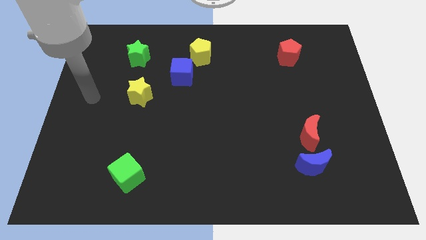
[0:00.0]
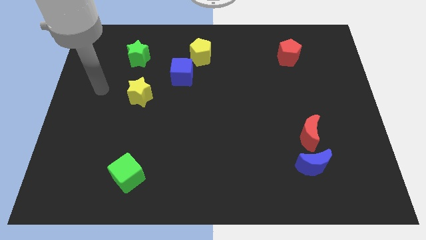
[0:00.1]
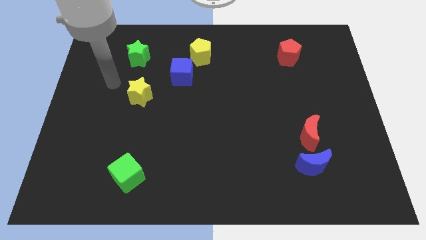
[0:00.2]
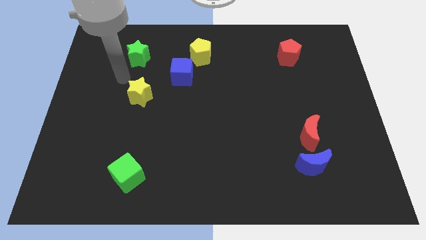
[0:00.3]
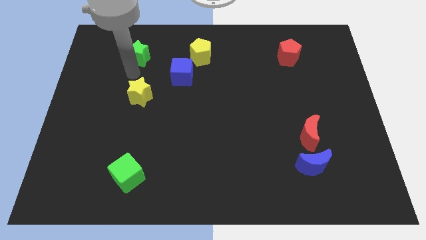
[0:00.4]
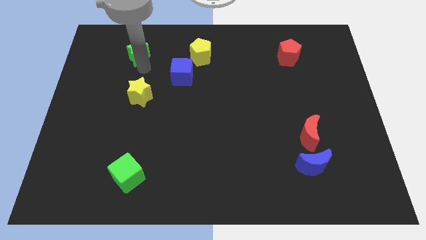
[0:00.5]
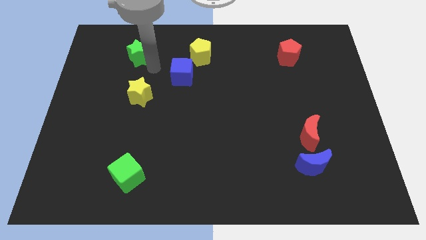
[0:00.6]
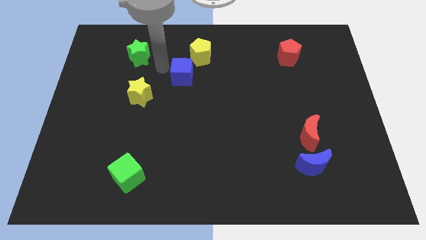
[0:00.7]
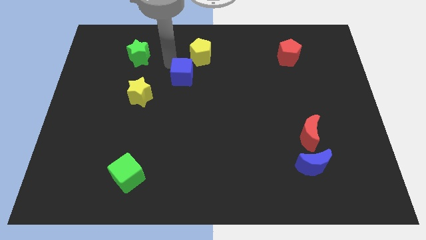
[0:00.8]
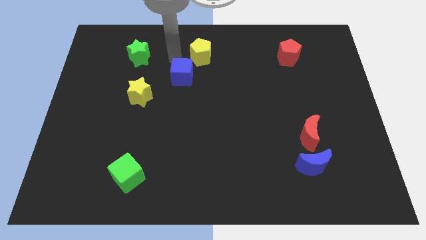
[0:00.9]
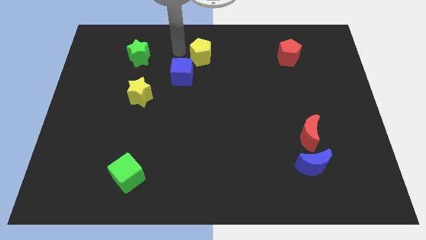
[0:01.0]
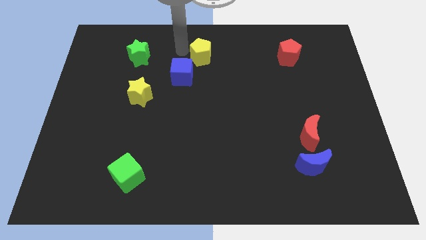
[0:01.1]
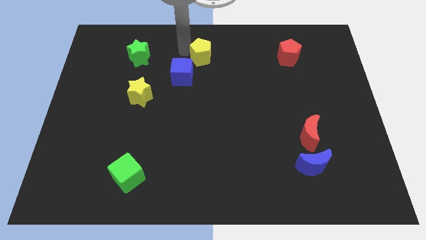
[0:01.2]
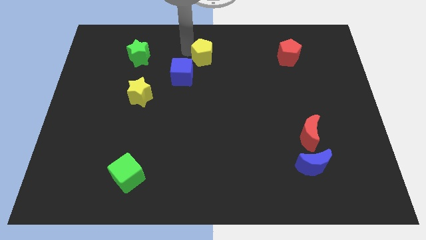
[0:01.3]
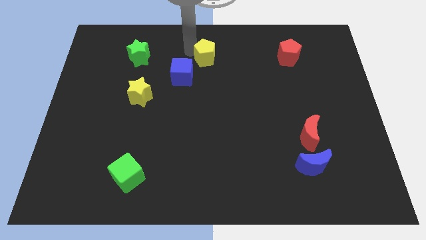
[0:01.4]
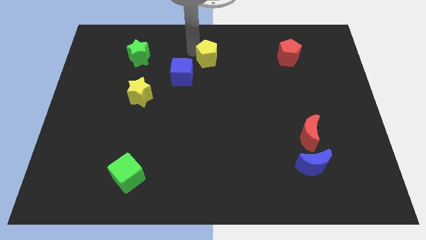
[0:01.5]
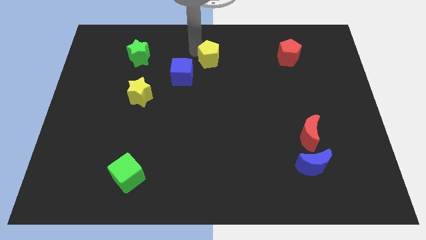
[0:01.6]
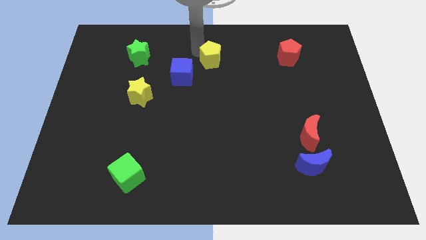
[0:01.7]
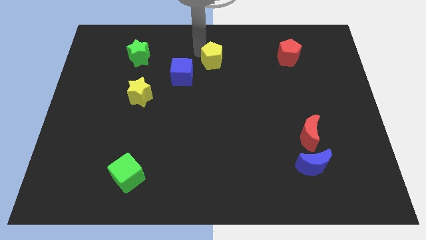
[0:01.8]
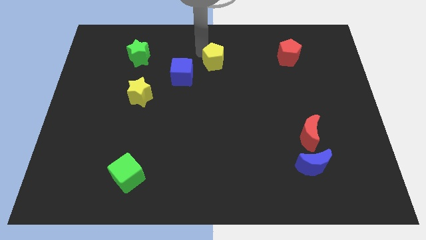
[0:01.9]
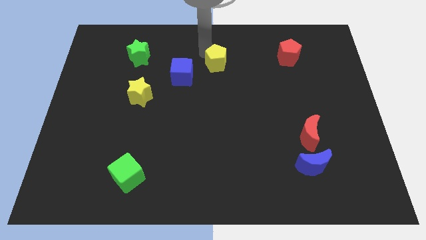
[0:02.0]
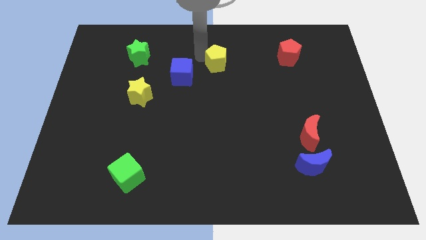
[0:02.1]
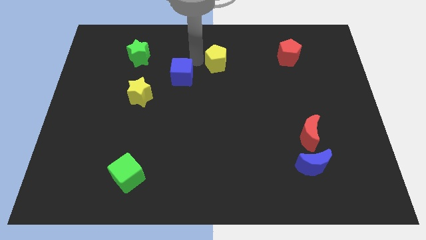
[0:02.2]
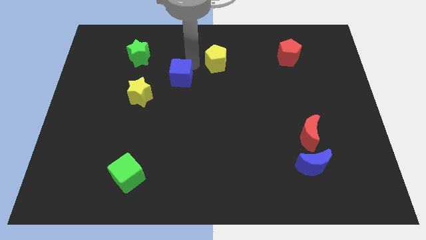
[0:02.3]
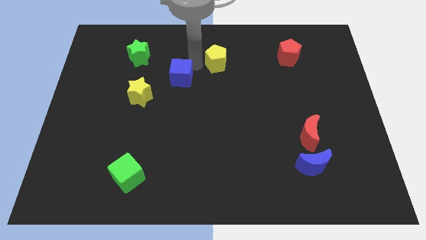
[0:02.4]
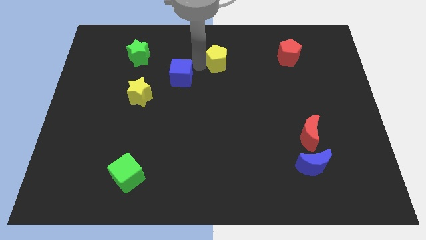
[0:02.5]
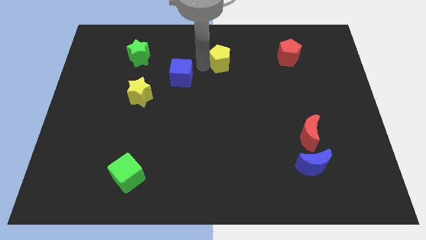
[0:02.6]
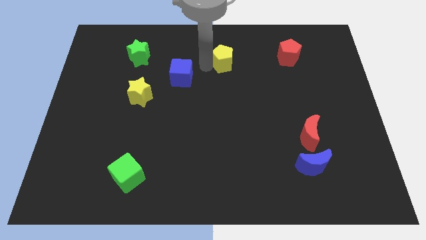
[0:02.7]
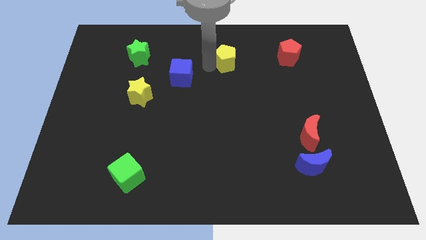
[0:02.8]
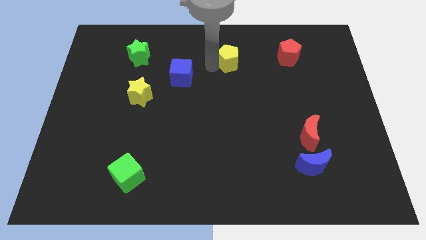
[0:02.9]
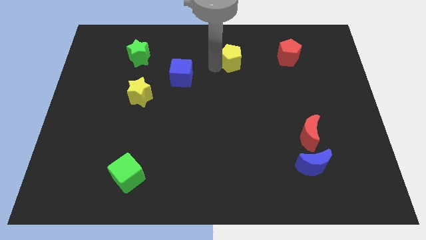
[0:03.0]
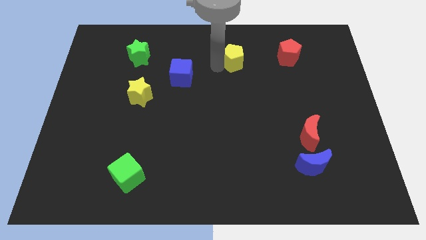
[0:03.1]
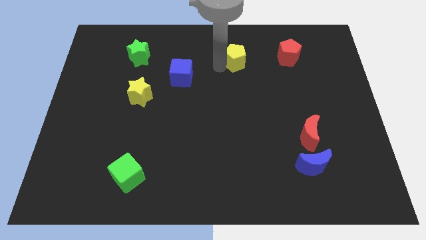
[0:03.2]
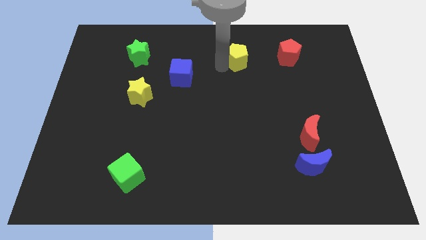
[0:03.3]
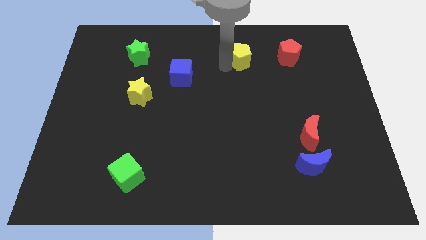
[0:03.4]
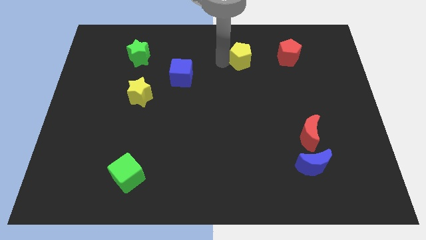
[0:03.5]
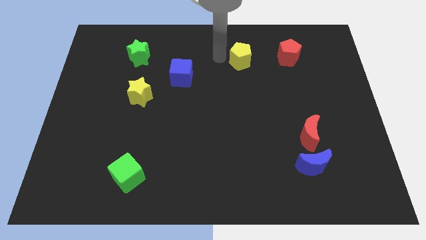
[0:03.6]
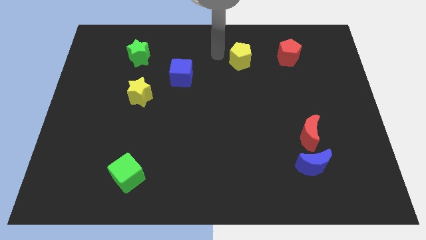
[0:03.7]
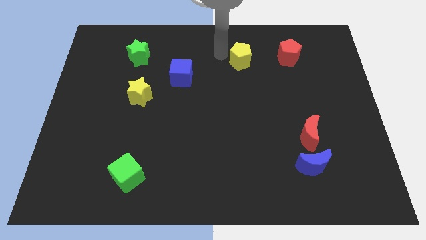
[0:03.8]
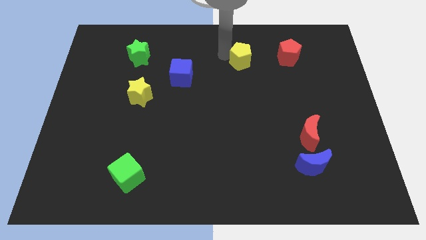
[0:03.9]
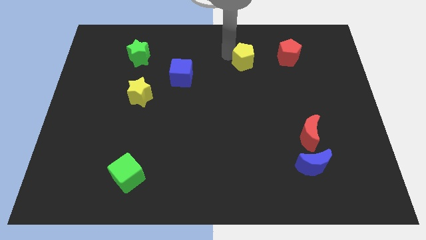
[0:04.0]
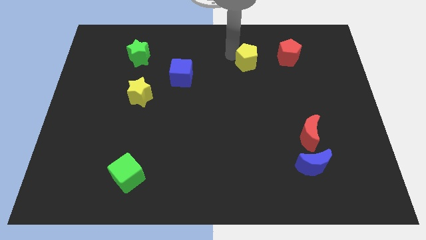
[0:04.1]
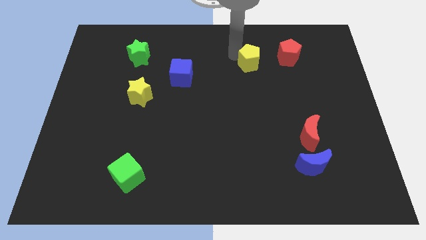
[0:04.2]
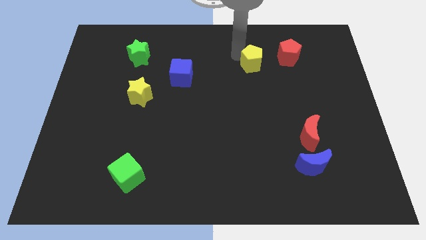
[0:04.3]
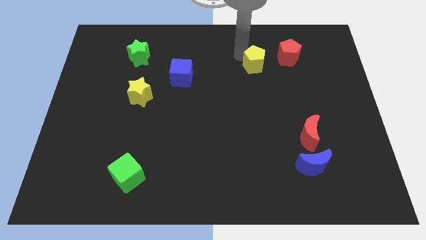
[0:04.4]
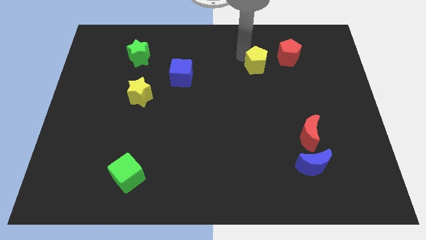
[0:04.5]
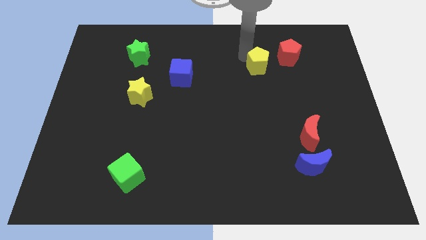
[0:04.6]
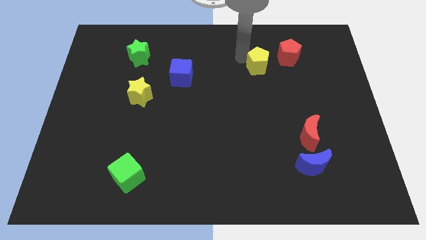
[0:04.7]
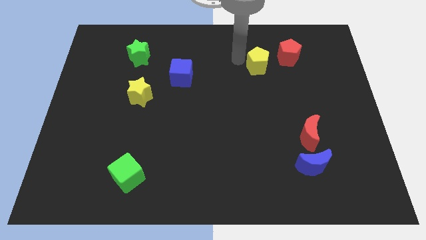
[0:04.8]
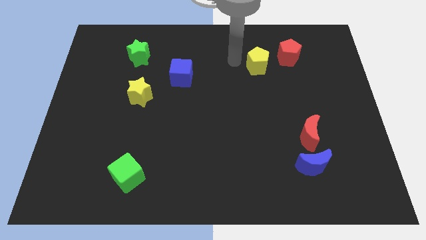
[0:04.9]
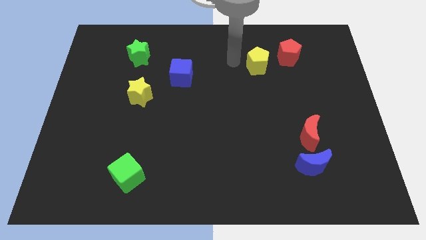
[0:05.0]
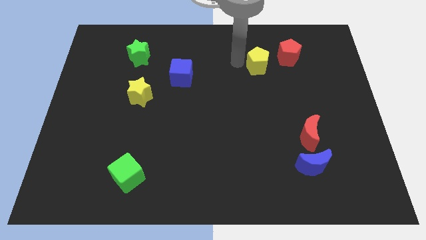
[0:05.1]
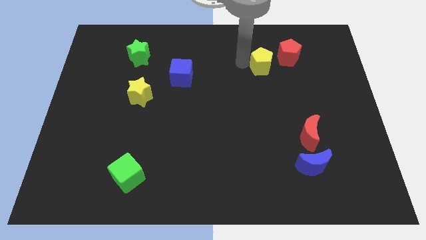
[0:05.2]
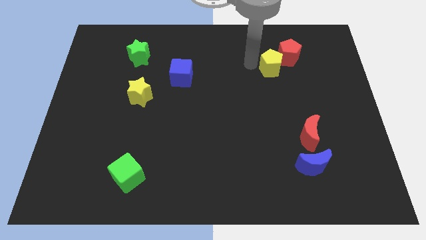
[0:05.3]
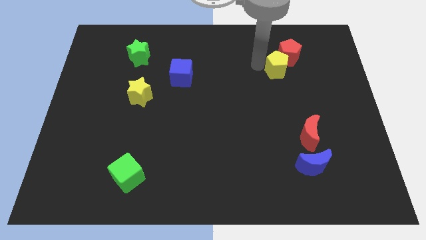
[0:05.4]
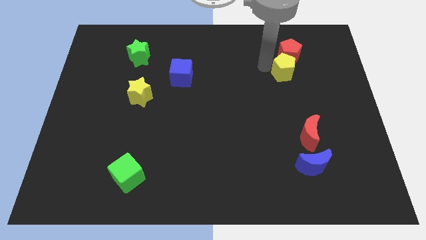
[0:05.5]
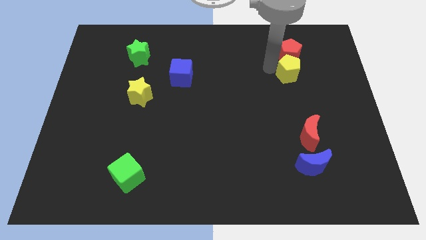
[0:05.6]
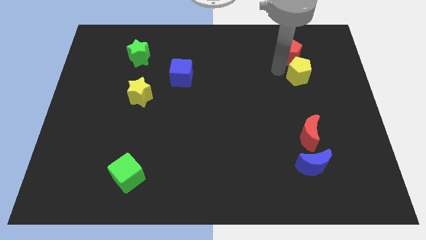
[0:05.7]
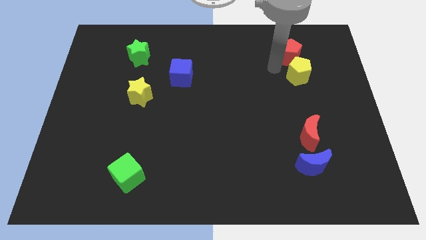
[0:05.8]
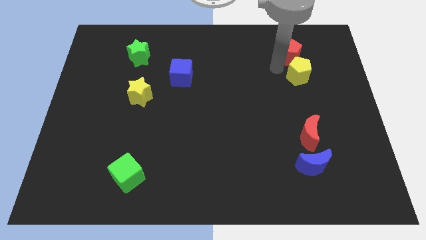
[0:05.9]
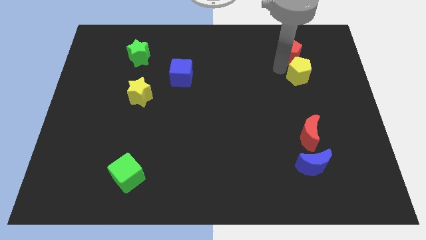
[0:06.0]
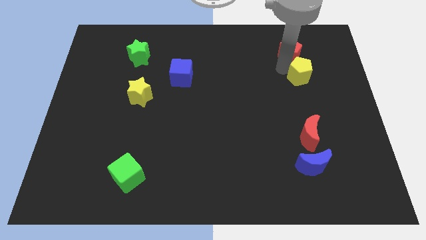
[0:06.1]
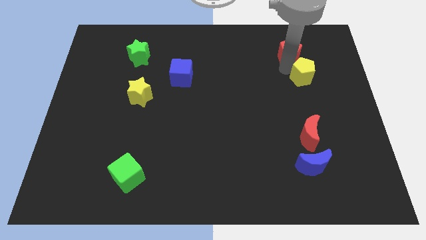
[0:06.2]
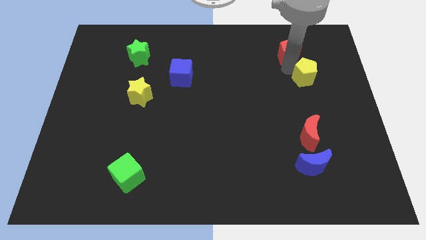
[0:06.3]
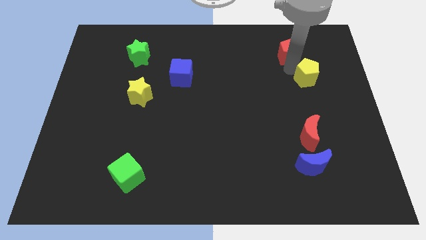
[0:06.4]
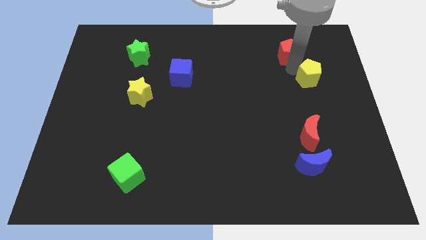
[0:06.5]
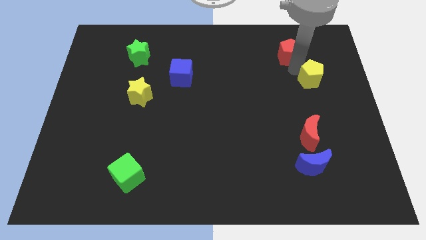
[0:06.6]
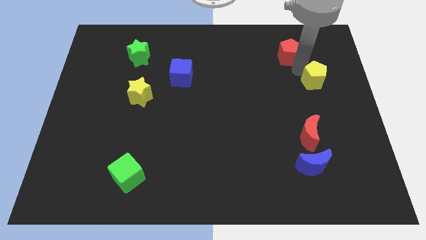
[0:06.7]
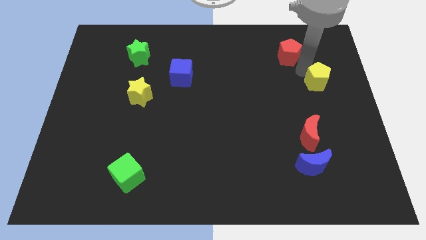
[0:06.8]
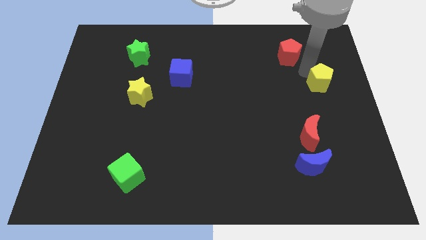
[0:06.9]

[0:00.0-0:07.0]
move the yellow pentagon to the right side
